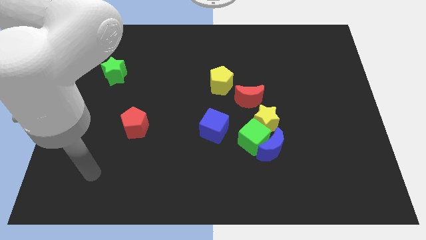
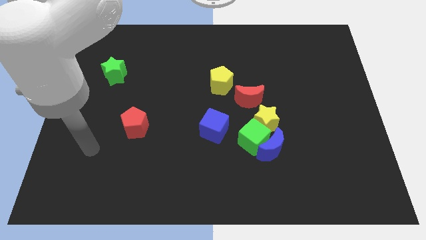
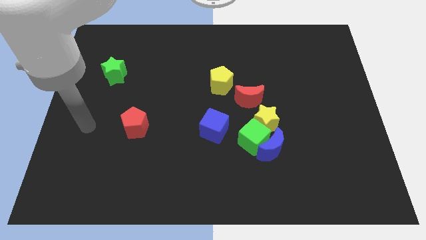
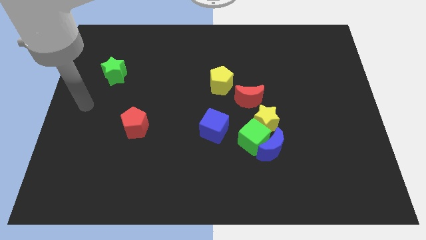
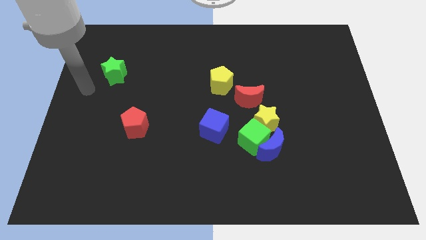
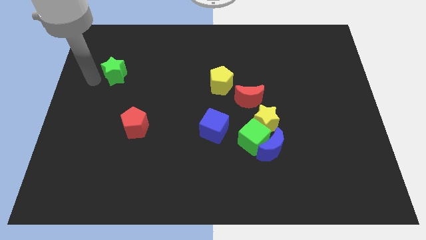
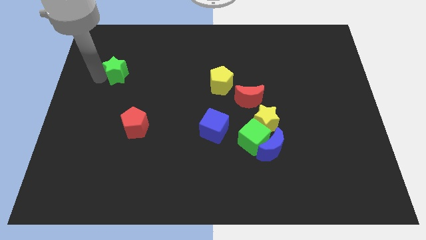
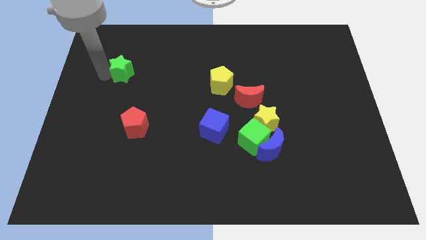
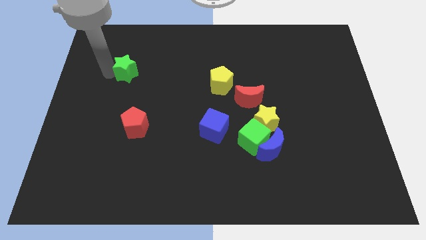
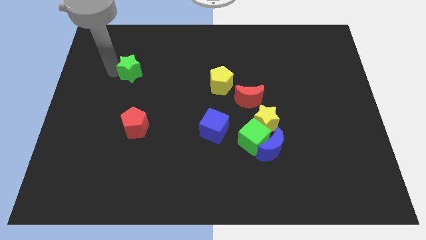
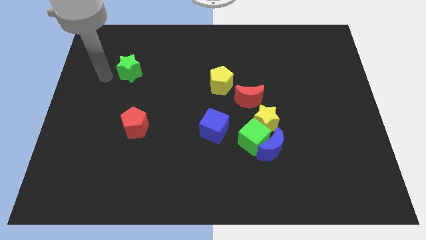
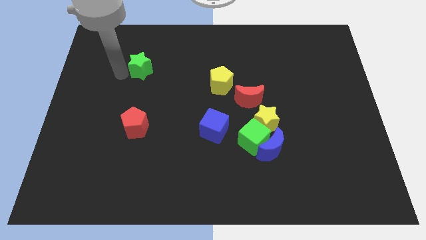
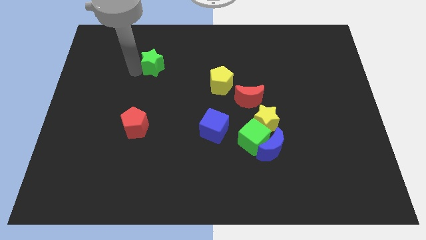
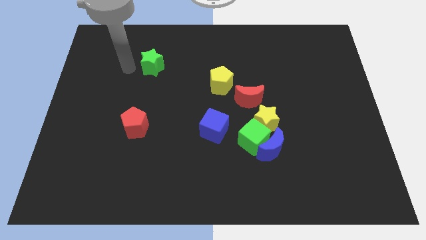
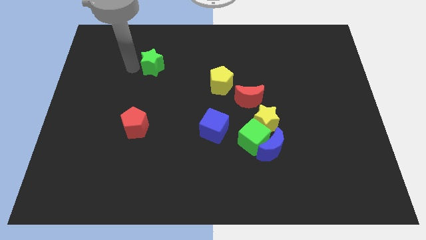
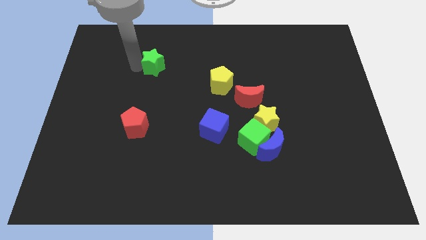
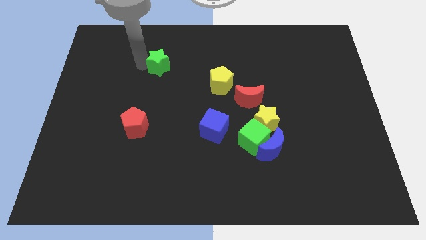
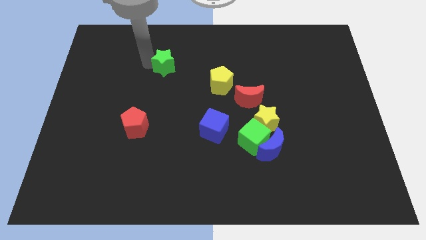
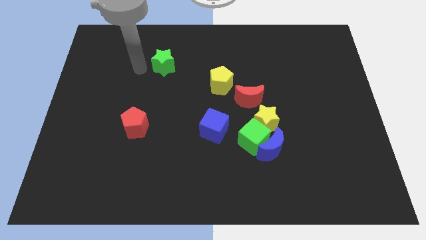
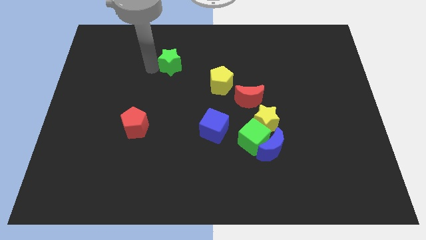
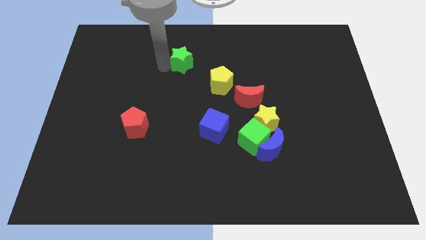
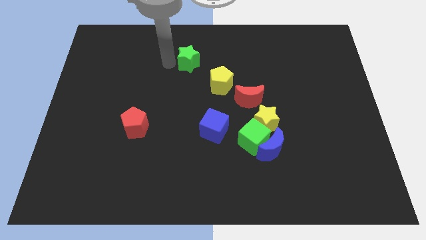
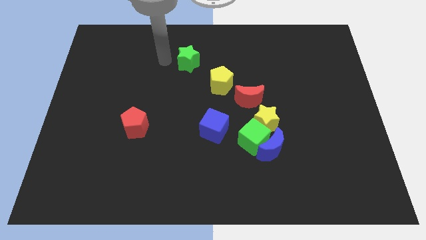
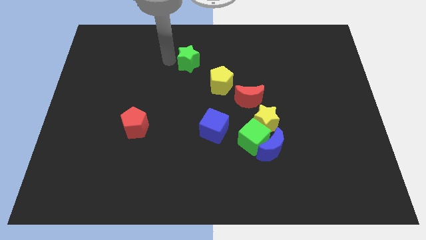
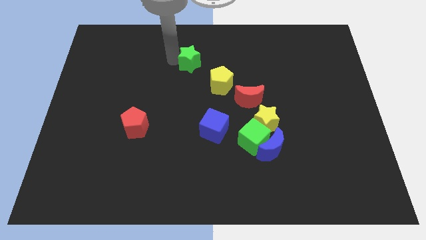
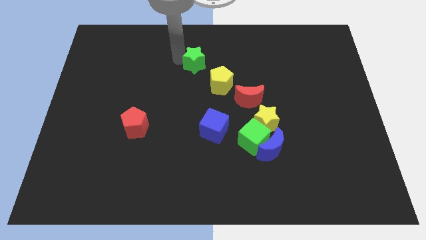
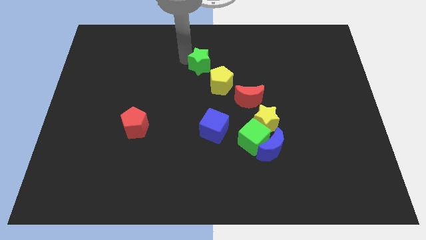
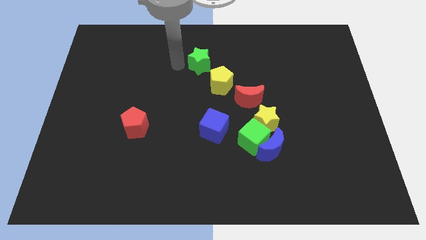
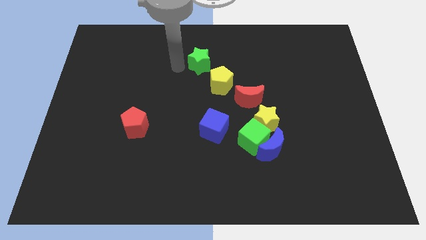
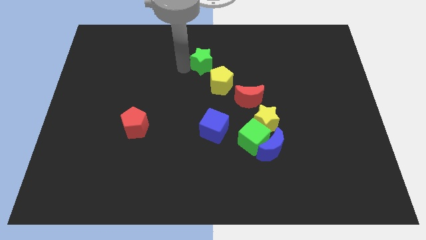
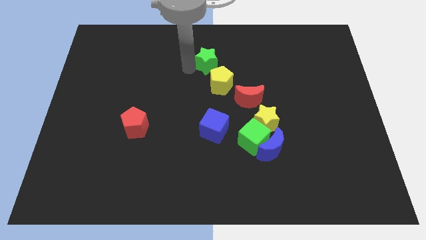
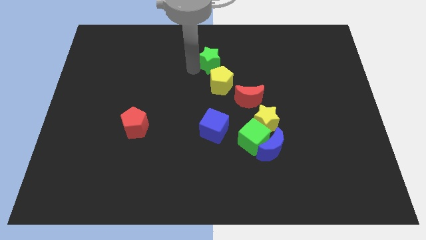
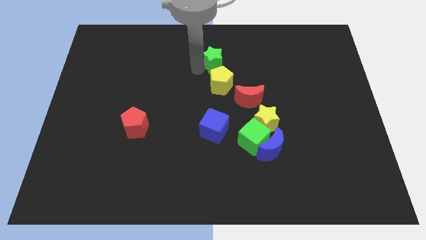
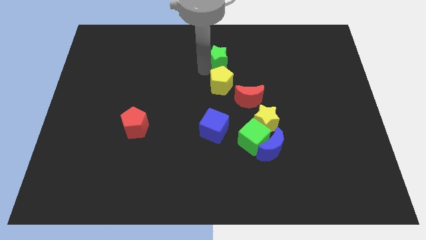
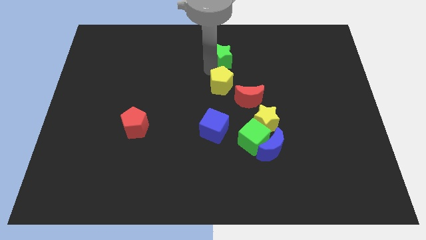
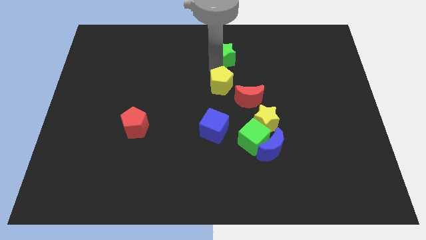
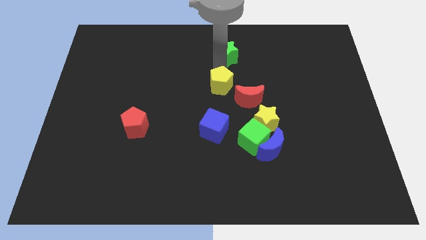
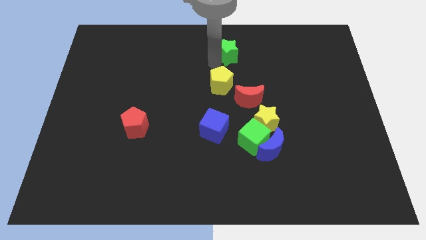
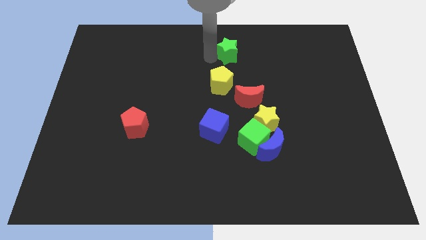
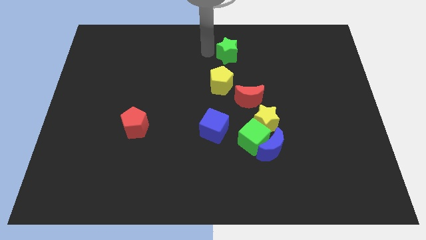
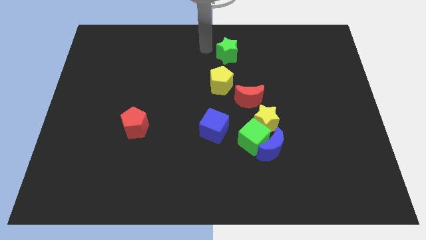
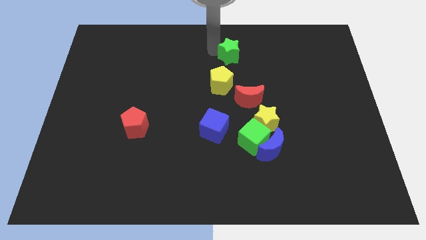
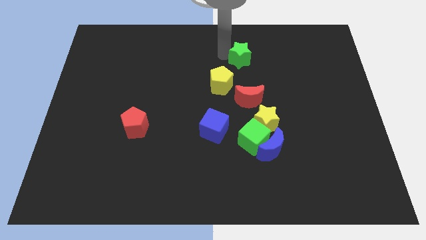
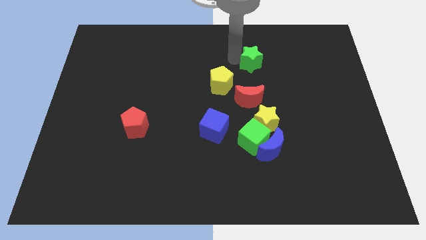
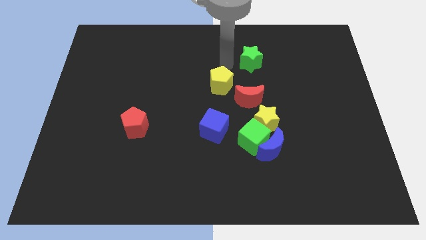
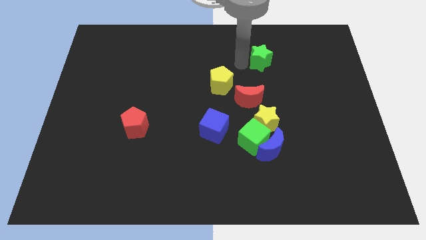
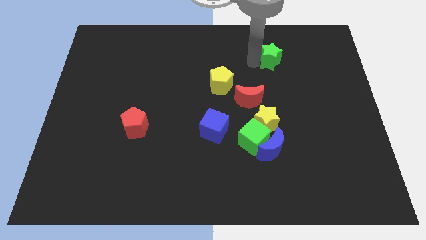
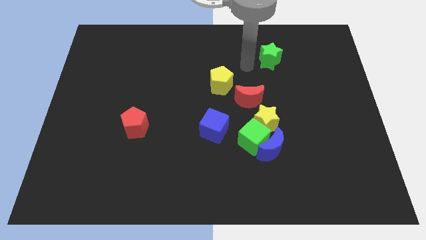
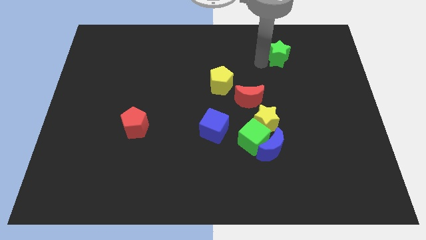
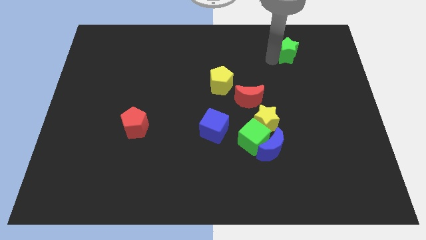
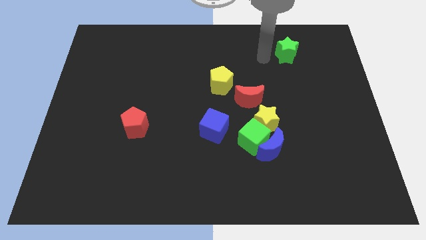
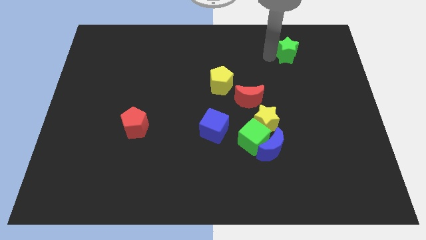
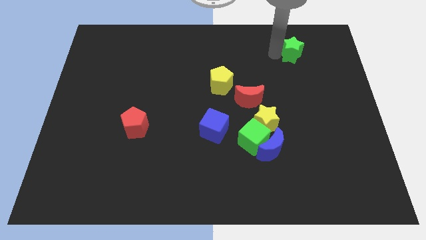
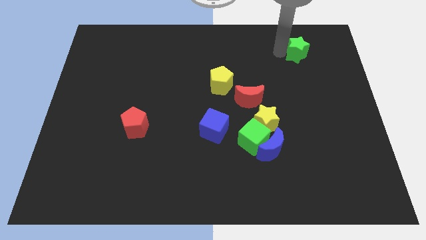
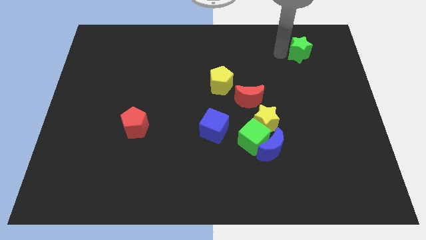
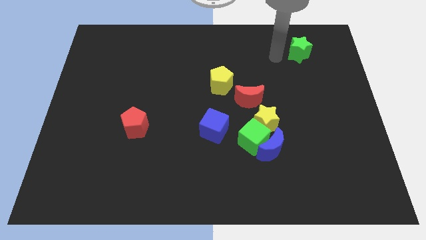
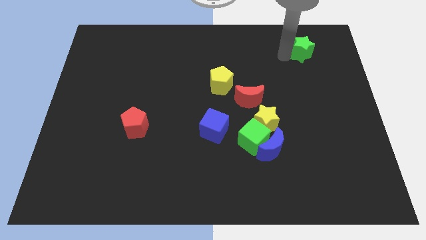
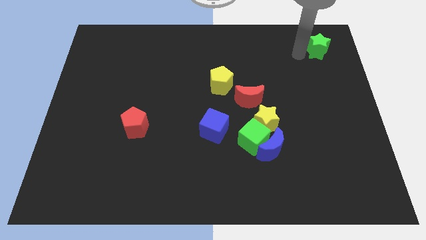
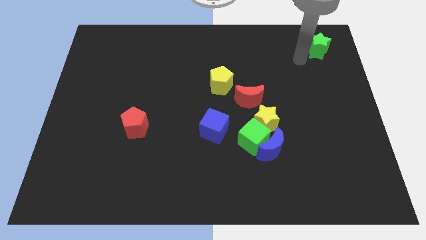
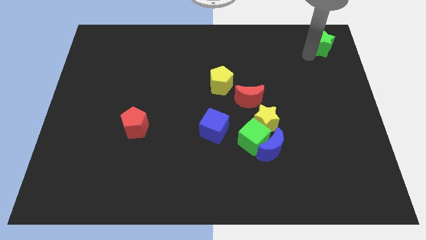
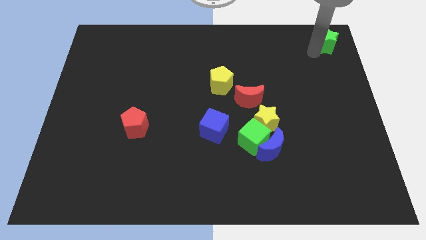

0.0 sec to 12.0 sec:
slide the green star to the top right
